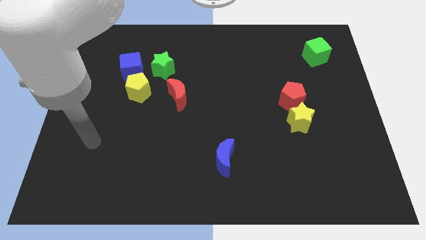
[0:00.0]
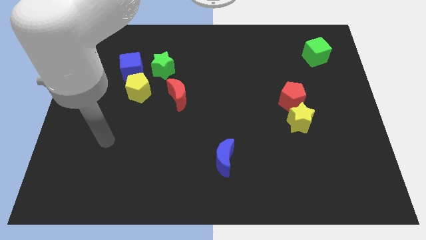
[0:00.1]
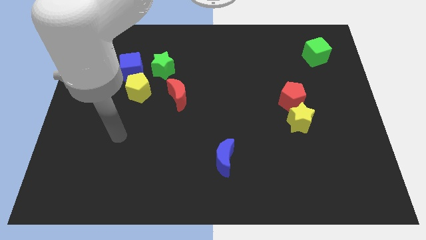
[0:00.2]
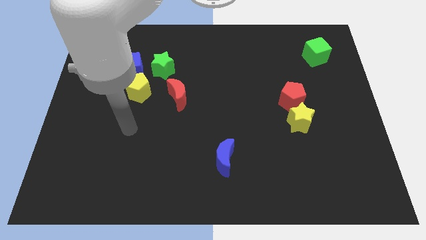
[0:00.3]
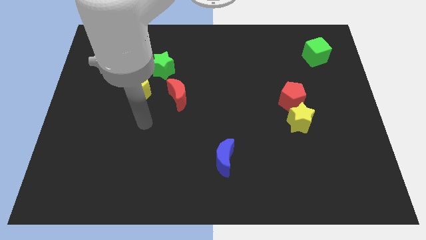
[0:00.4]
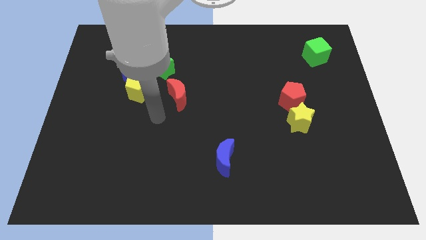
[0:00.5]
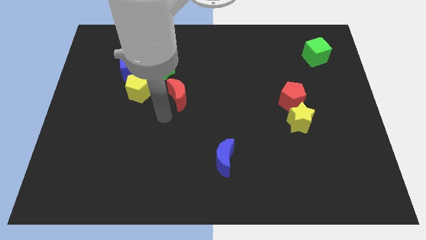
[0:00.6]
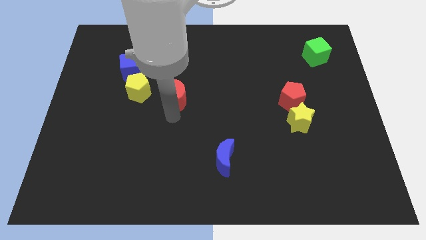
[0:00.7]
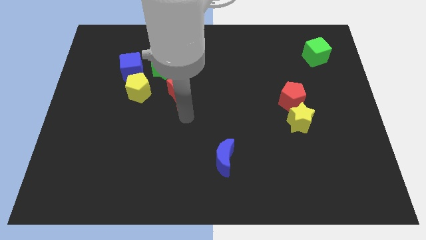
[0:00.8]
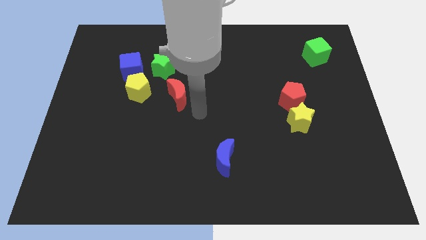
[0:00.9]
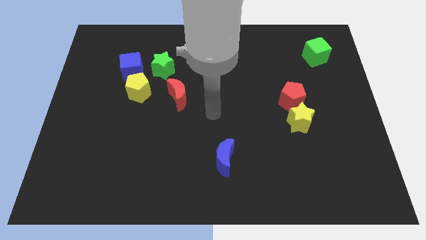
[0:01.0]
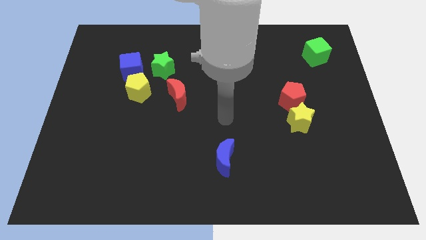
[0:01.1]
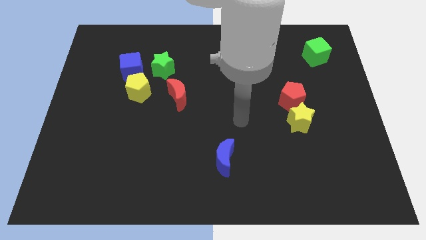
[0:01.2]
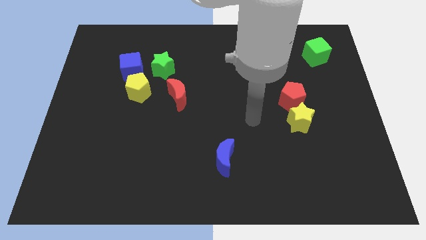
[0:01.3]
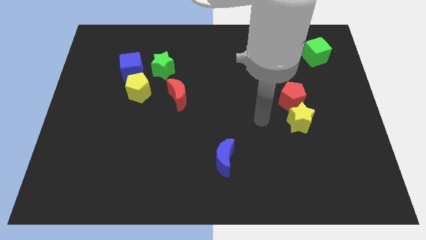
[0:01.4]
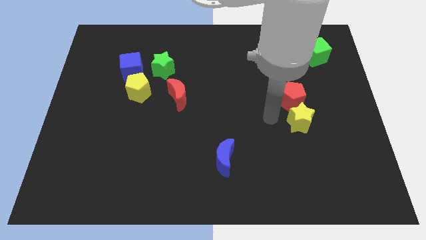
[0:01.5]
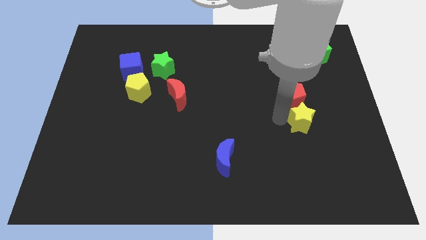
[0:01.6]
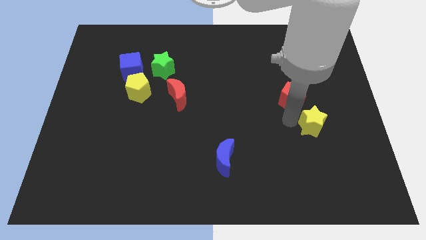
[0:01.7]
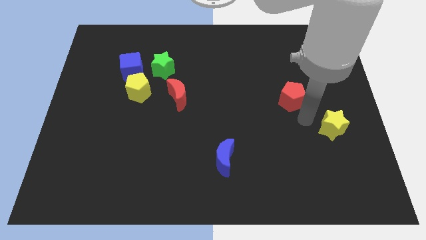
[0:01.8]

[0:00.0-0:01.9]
separate the red pentagon from the yellow star

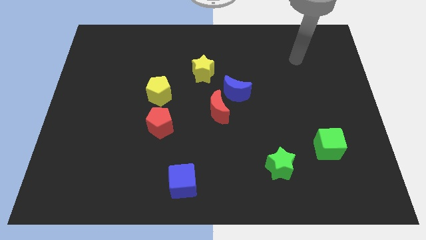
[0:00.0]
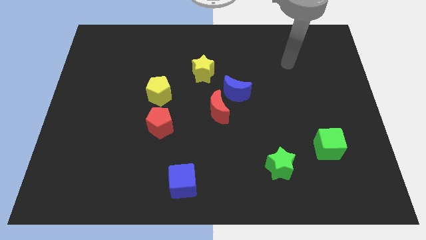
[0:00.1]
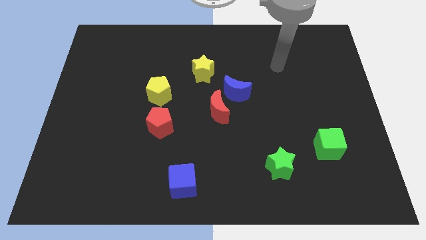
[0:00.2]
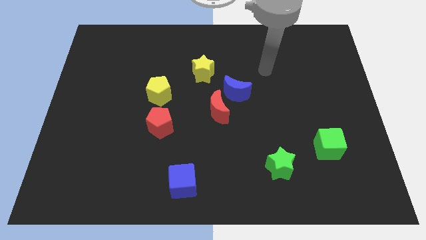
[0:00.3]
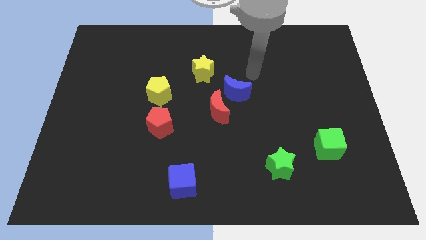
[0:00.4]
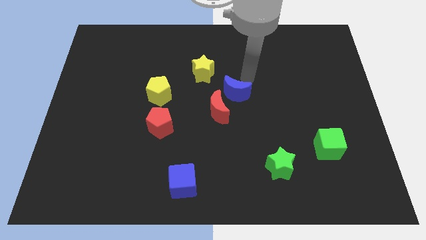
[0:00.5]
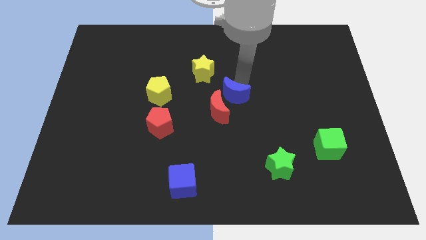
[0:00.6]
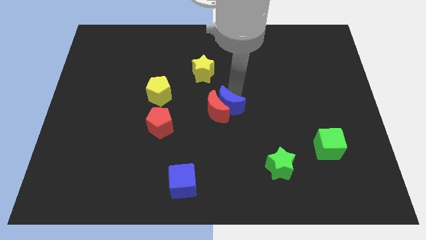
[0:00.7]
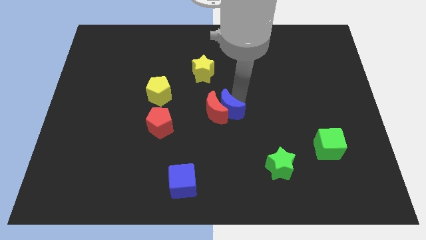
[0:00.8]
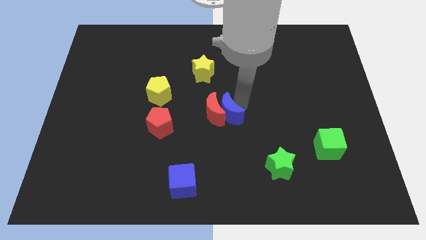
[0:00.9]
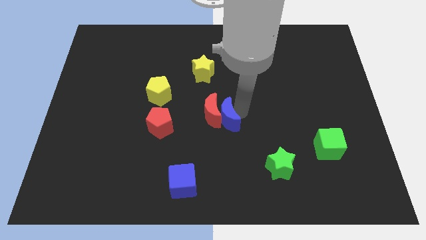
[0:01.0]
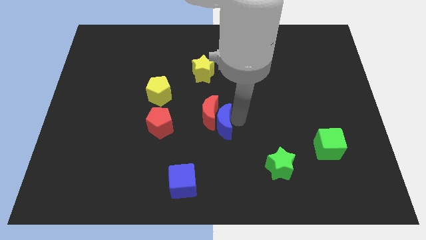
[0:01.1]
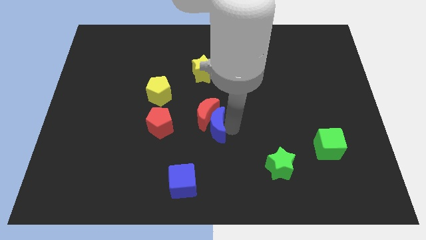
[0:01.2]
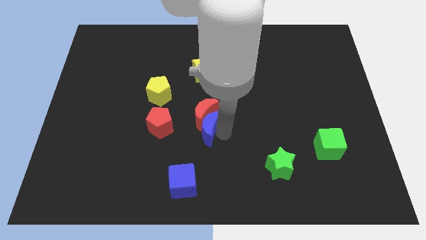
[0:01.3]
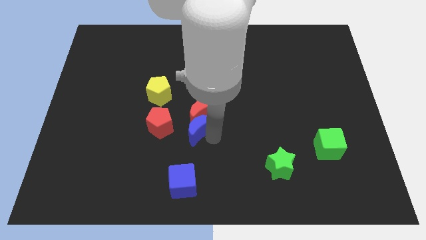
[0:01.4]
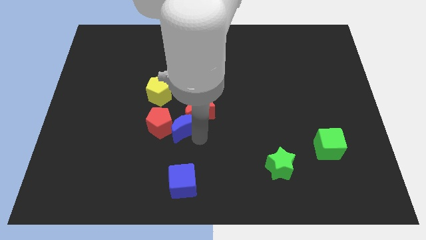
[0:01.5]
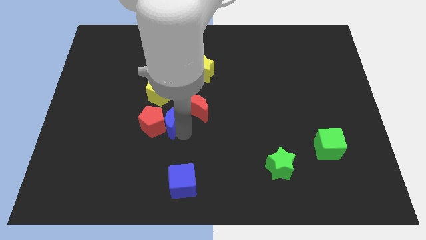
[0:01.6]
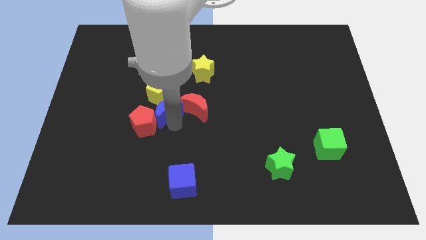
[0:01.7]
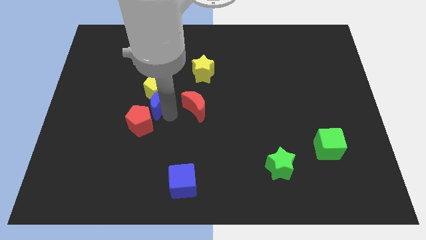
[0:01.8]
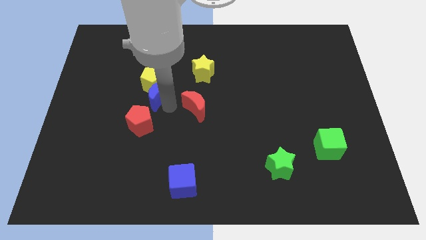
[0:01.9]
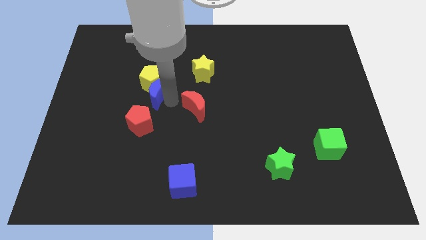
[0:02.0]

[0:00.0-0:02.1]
move the red moon away from the blue moon

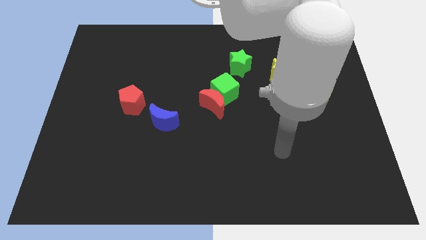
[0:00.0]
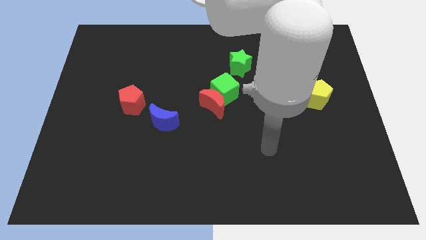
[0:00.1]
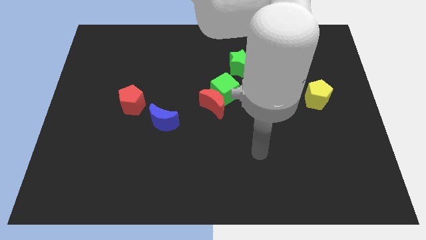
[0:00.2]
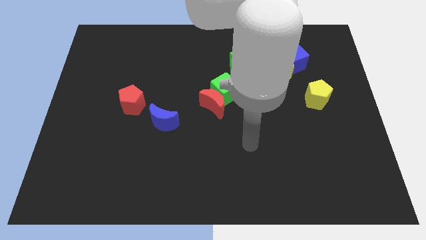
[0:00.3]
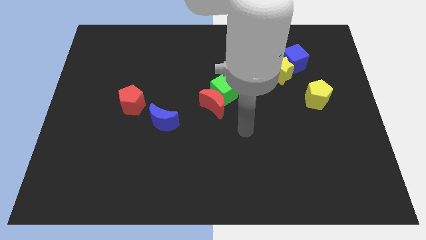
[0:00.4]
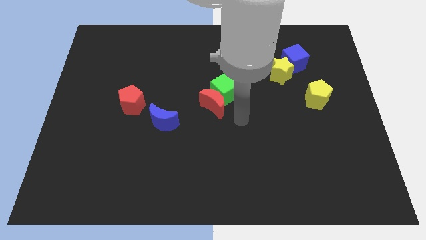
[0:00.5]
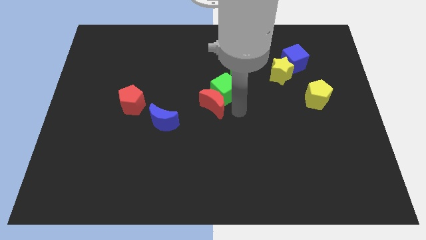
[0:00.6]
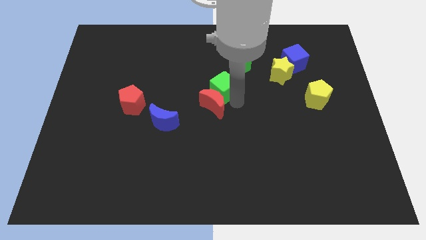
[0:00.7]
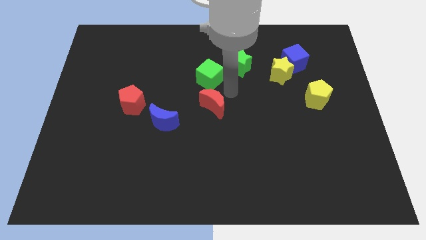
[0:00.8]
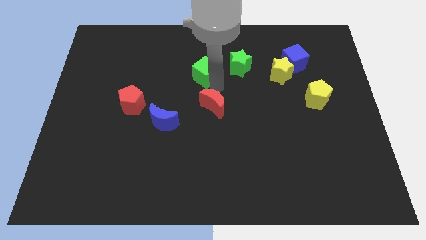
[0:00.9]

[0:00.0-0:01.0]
move the red moon away from the green cube

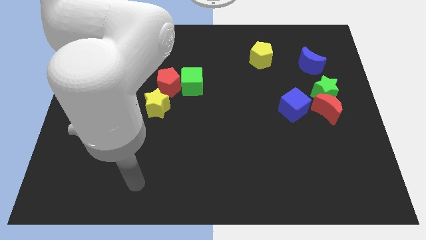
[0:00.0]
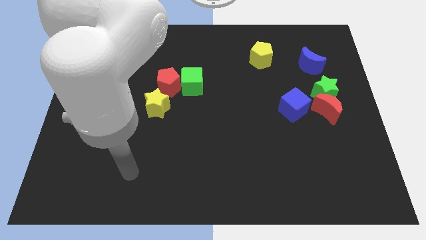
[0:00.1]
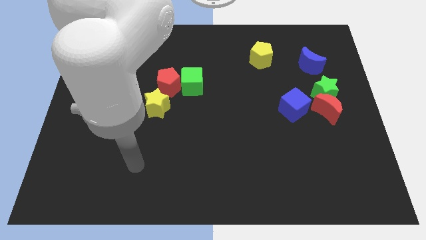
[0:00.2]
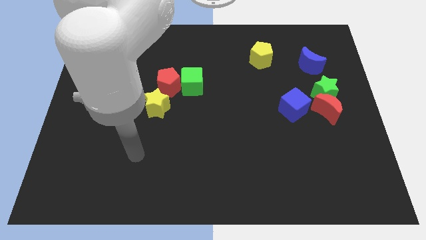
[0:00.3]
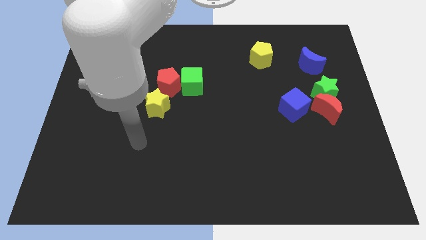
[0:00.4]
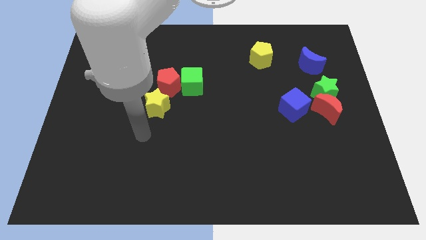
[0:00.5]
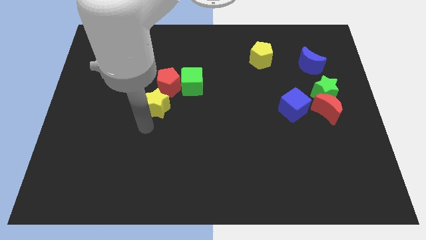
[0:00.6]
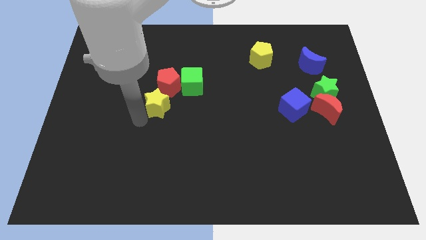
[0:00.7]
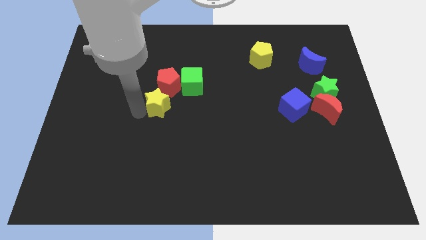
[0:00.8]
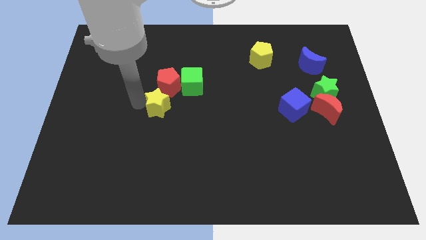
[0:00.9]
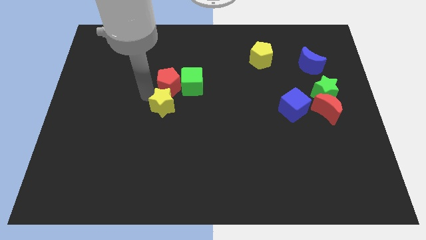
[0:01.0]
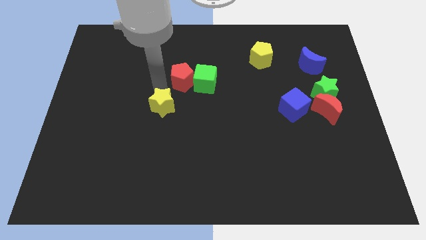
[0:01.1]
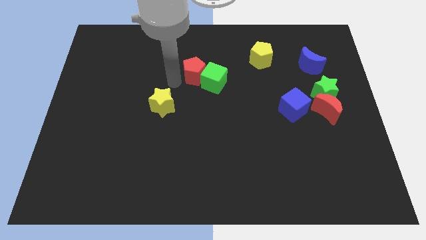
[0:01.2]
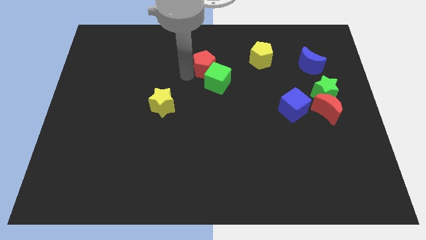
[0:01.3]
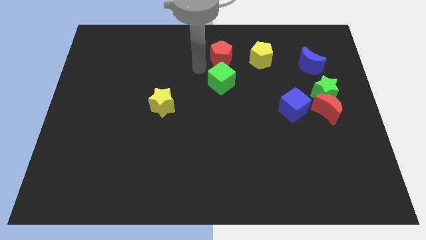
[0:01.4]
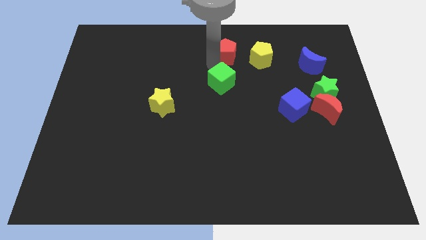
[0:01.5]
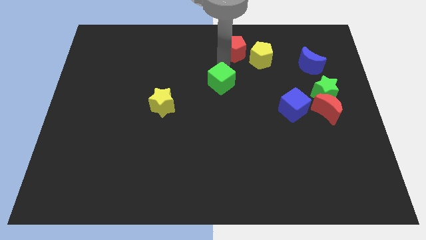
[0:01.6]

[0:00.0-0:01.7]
separate the green cube from the red pentagon

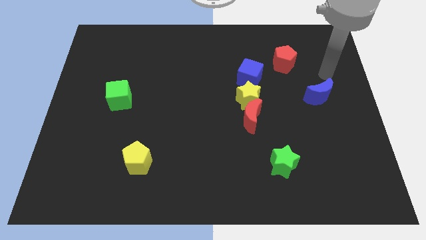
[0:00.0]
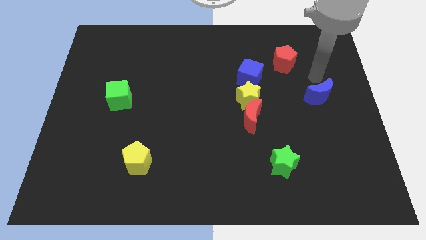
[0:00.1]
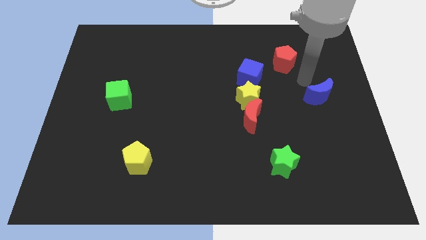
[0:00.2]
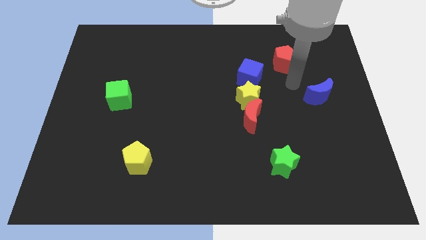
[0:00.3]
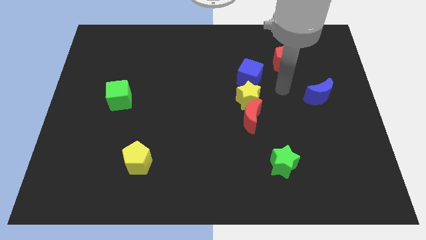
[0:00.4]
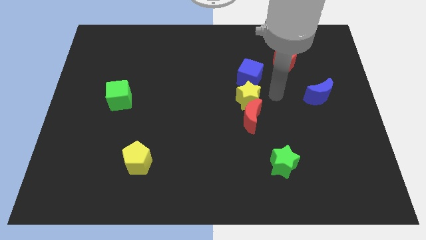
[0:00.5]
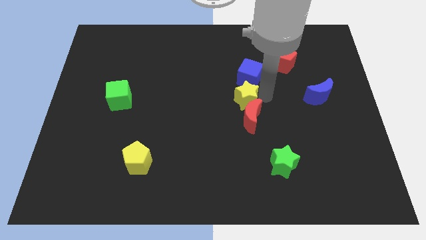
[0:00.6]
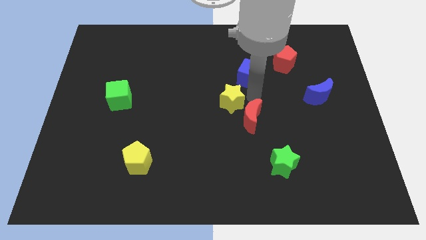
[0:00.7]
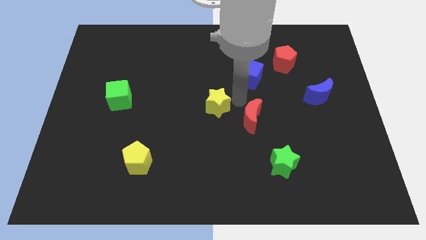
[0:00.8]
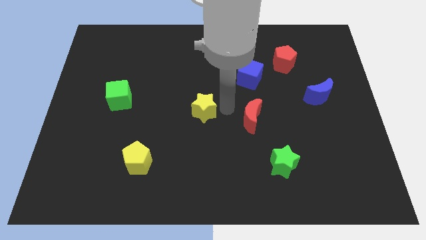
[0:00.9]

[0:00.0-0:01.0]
move the red moon away from the yellow star

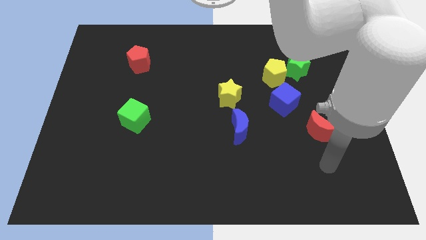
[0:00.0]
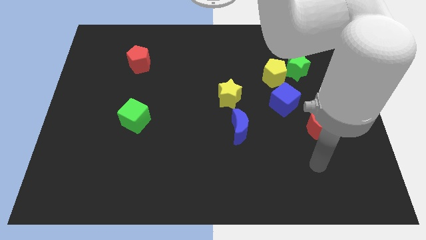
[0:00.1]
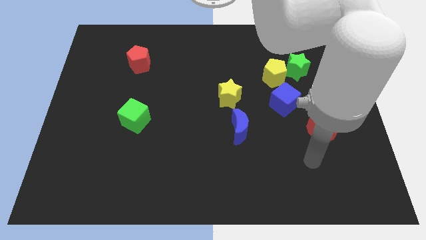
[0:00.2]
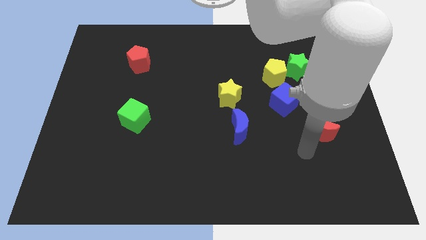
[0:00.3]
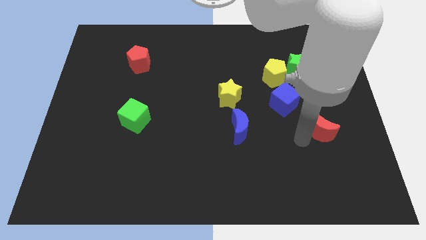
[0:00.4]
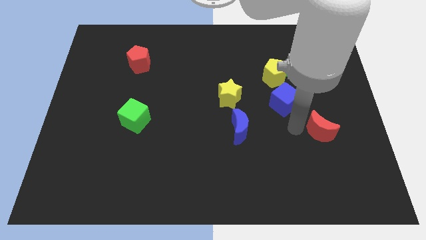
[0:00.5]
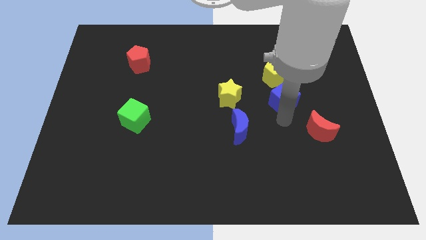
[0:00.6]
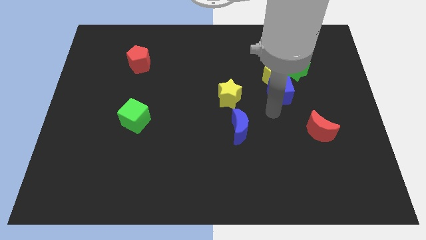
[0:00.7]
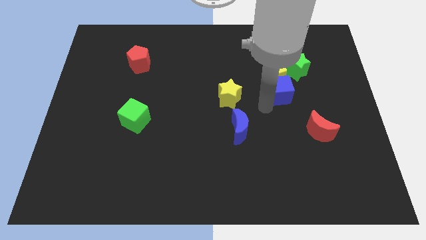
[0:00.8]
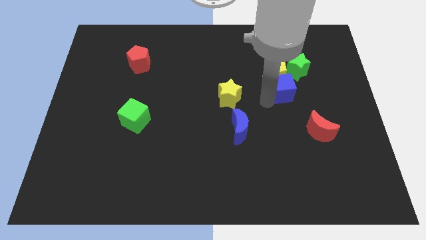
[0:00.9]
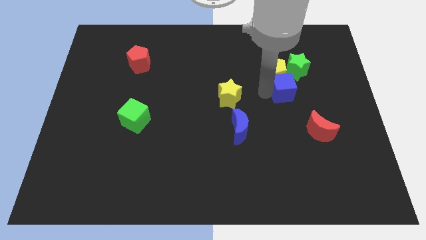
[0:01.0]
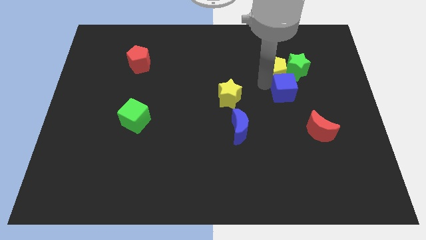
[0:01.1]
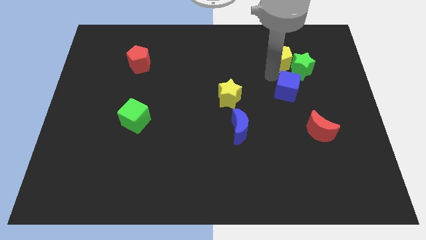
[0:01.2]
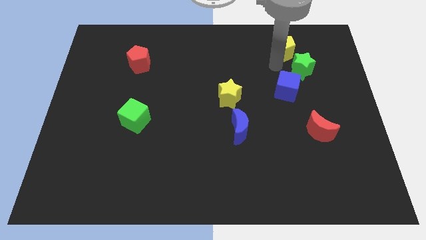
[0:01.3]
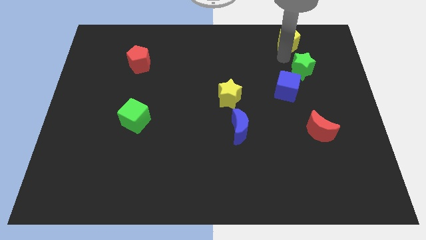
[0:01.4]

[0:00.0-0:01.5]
move the green star away from the yellow pentagon
